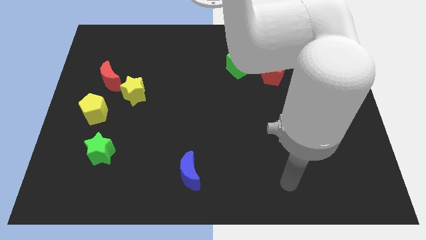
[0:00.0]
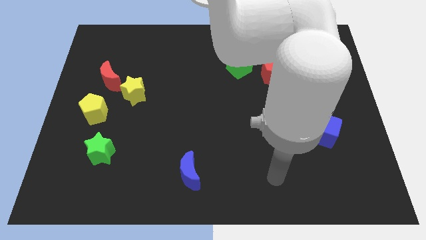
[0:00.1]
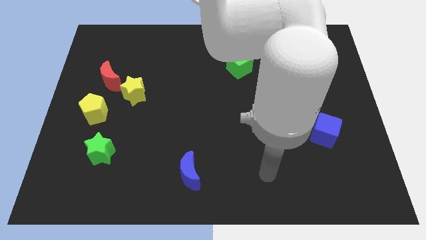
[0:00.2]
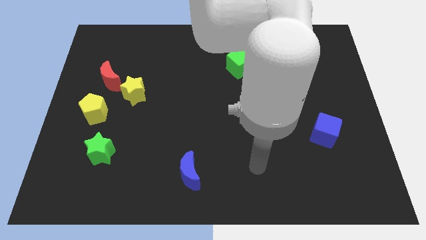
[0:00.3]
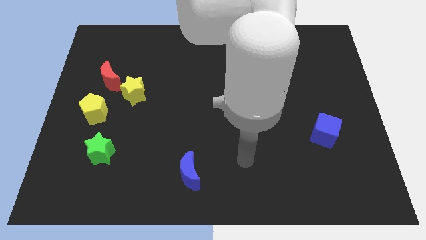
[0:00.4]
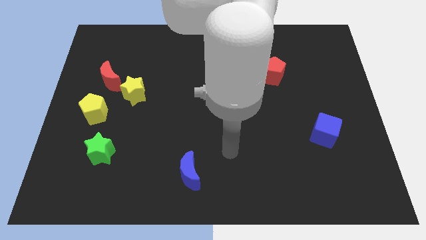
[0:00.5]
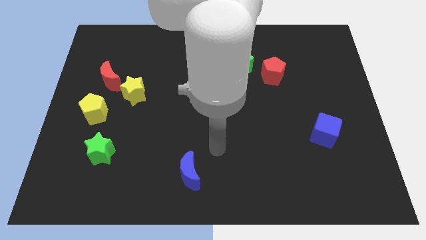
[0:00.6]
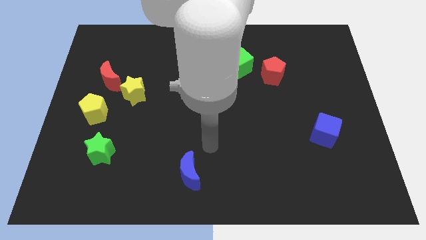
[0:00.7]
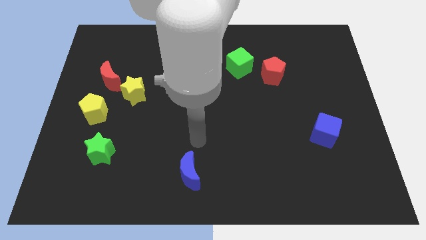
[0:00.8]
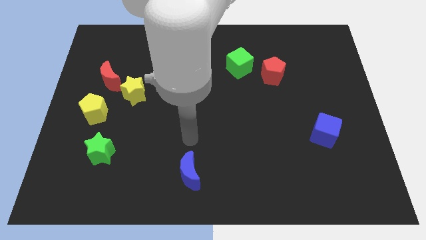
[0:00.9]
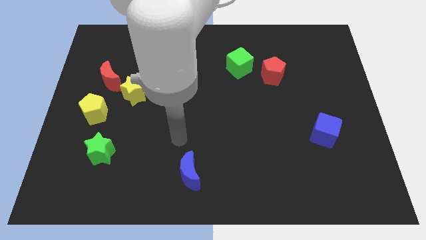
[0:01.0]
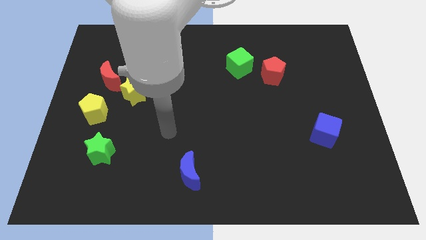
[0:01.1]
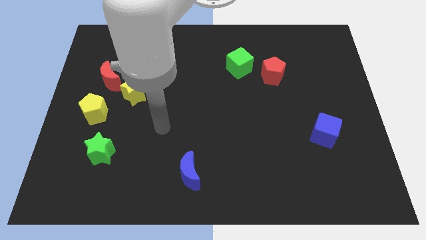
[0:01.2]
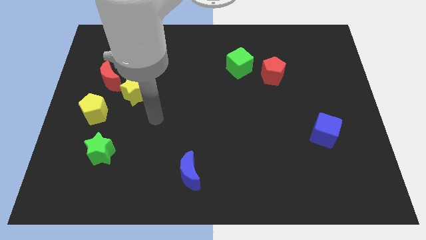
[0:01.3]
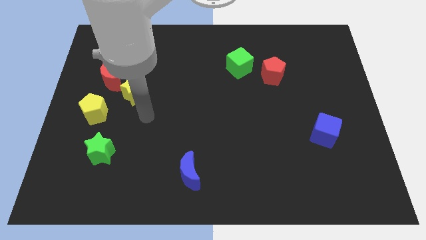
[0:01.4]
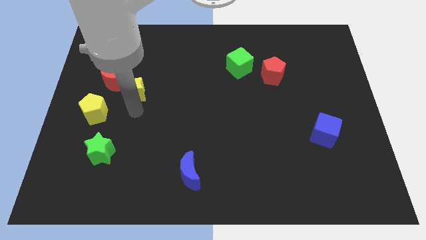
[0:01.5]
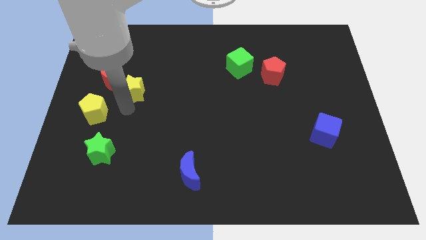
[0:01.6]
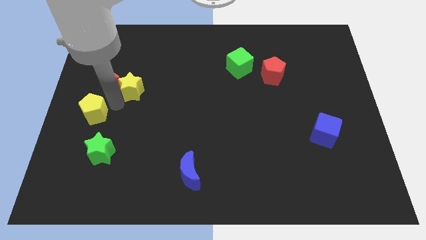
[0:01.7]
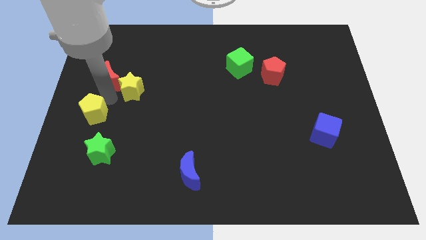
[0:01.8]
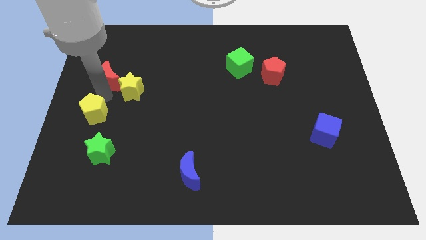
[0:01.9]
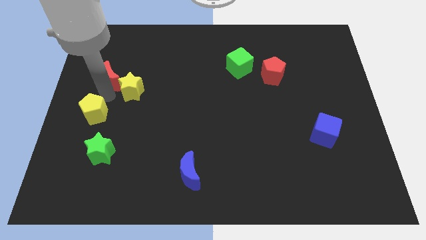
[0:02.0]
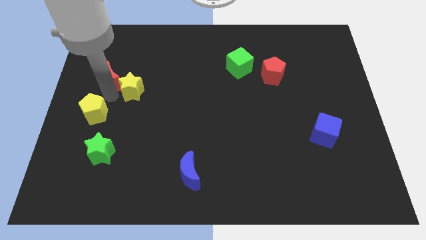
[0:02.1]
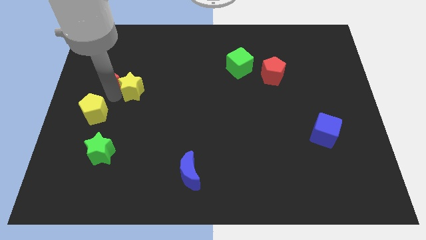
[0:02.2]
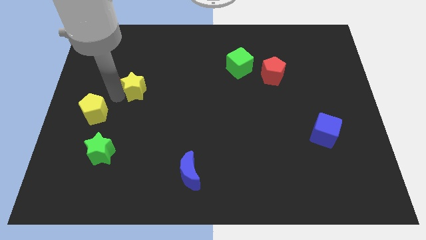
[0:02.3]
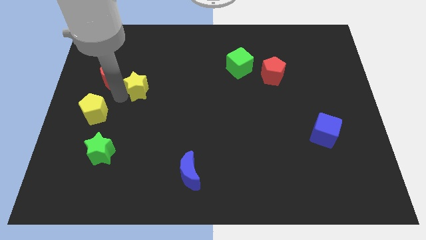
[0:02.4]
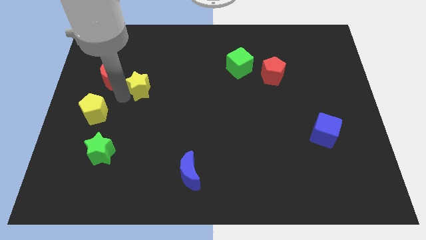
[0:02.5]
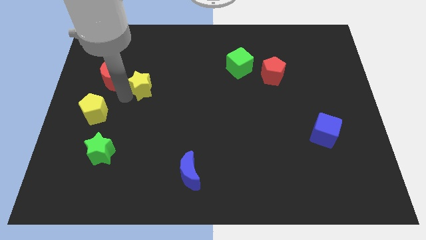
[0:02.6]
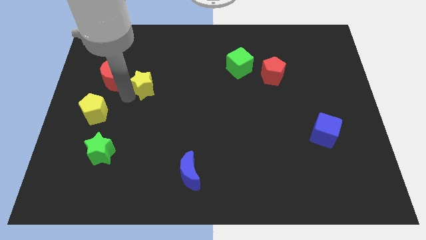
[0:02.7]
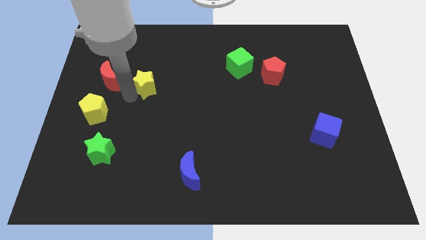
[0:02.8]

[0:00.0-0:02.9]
move the yellow star away from the red moon and yellow pentagon

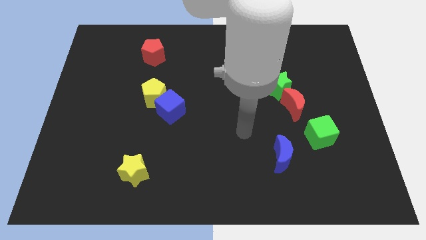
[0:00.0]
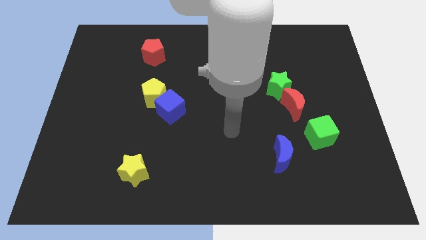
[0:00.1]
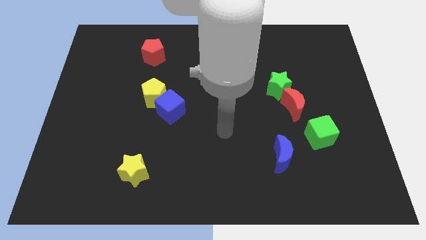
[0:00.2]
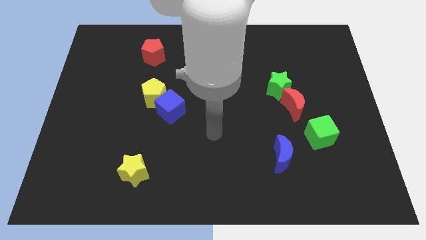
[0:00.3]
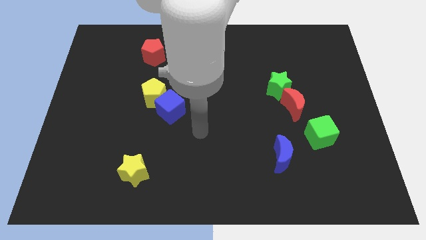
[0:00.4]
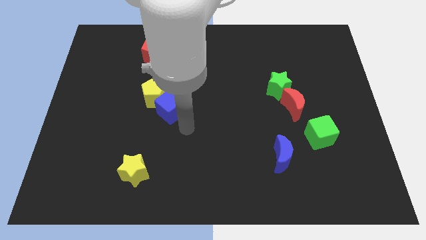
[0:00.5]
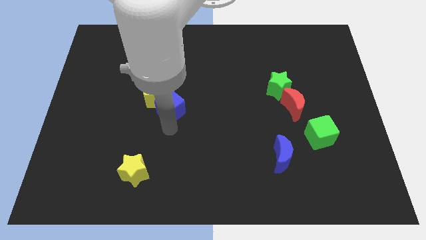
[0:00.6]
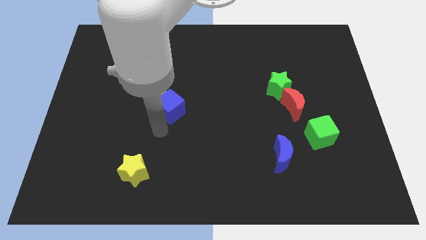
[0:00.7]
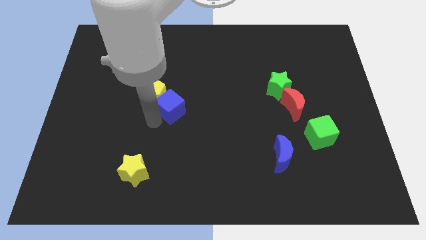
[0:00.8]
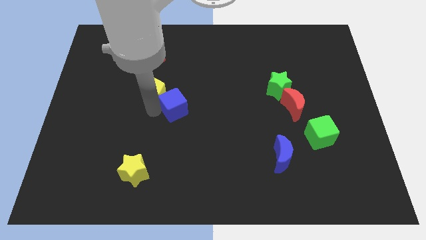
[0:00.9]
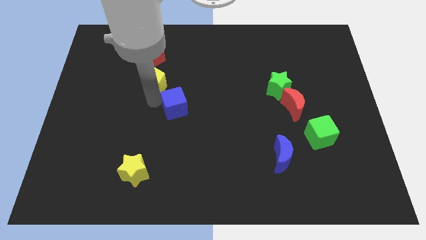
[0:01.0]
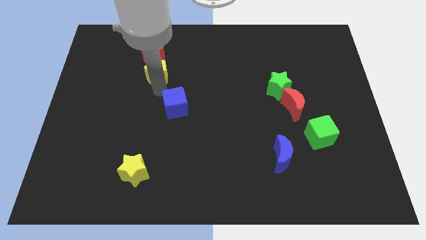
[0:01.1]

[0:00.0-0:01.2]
separate the blue cube from the yellow pentagon

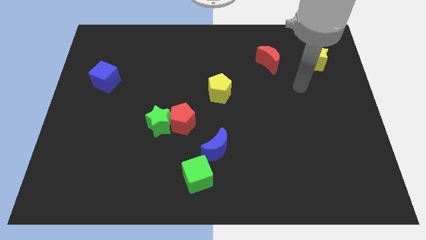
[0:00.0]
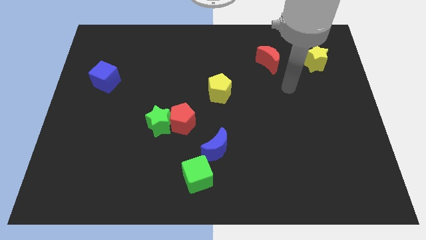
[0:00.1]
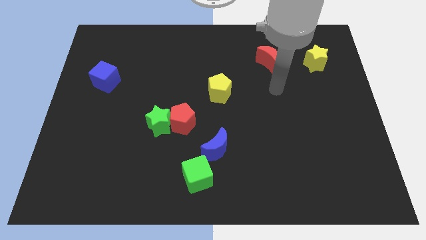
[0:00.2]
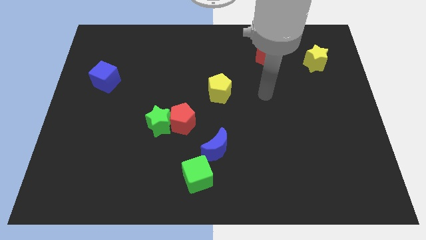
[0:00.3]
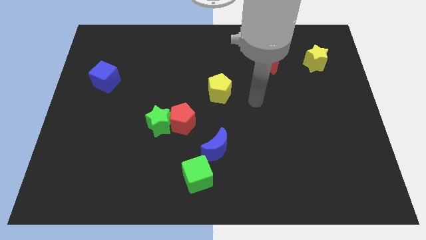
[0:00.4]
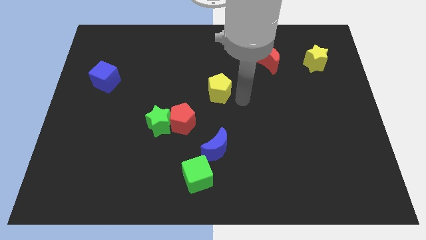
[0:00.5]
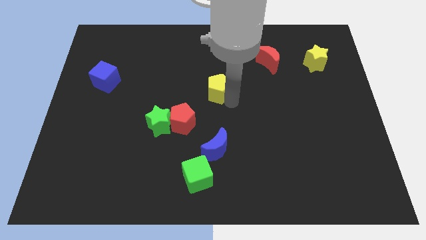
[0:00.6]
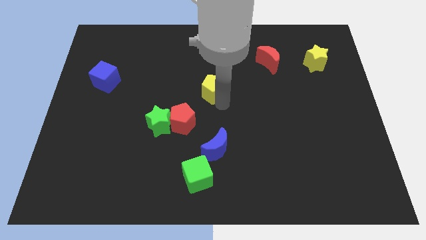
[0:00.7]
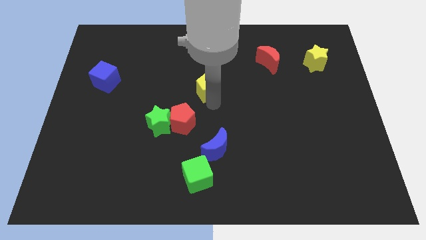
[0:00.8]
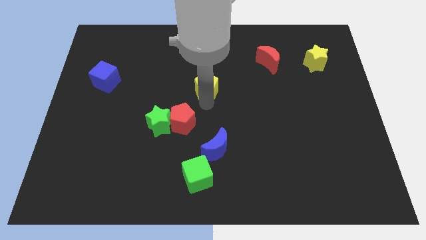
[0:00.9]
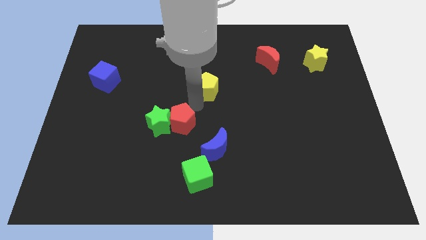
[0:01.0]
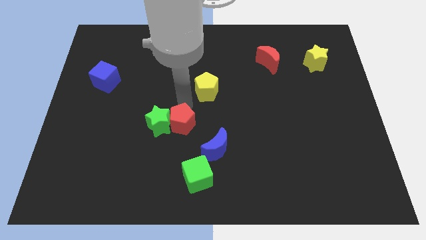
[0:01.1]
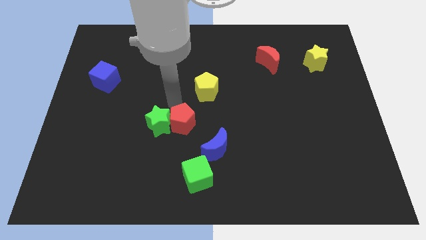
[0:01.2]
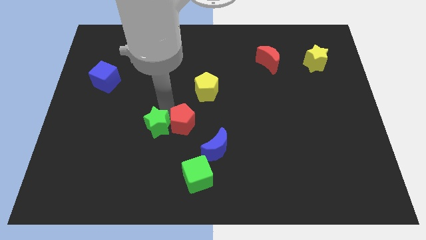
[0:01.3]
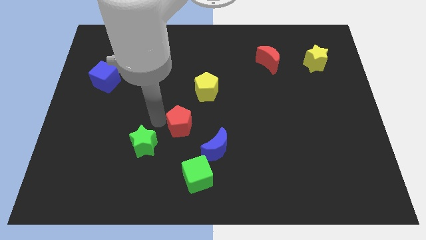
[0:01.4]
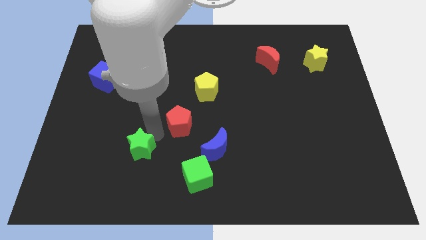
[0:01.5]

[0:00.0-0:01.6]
separate the red pentagon from the green star

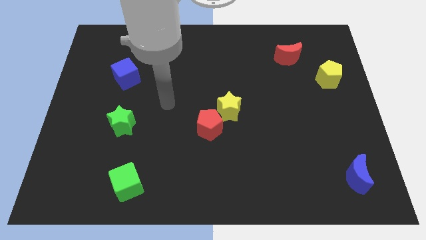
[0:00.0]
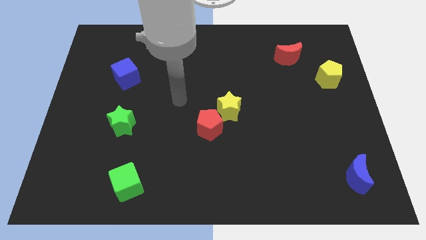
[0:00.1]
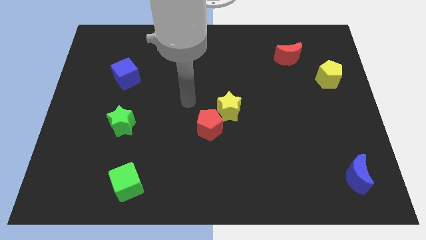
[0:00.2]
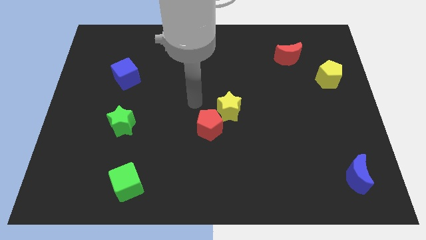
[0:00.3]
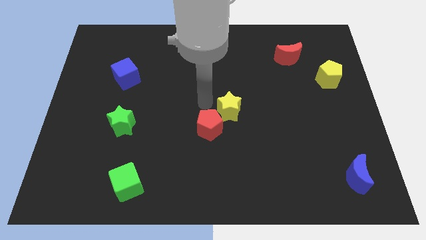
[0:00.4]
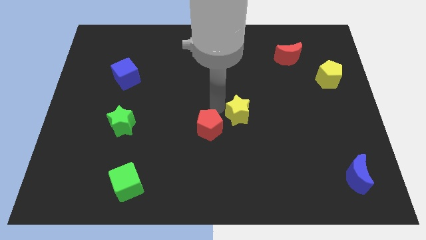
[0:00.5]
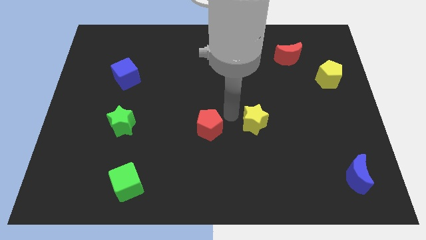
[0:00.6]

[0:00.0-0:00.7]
separate the red pentagon from the yellow star

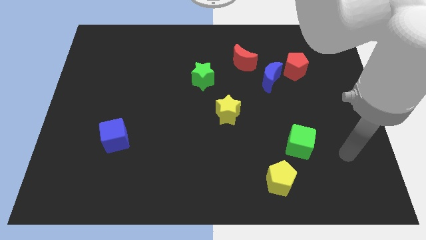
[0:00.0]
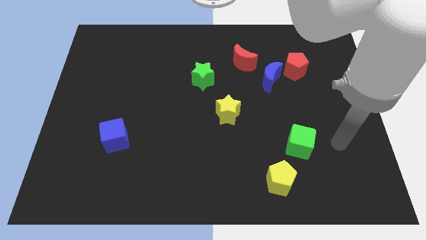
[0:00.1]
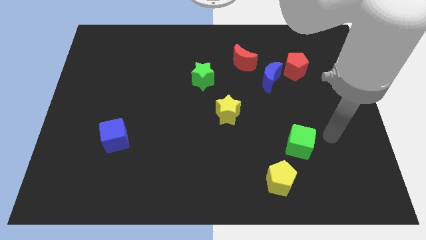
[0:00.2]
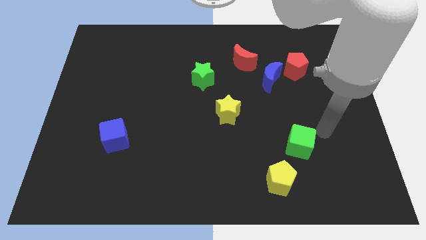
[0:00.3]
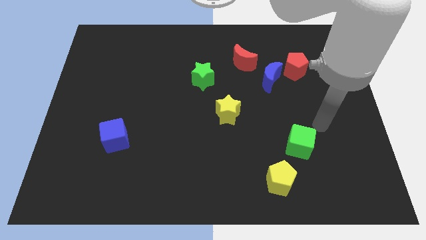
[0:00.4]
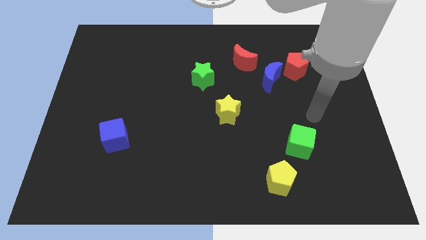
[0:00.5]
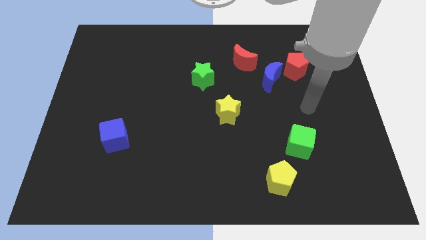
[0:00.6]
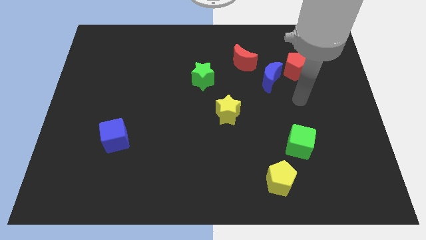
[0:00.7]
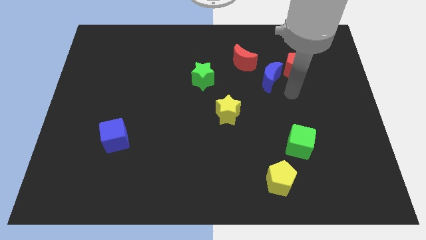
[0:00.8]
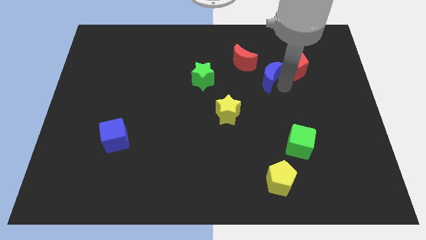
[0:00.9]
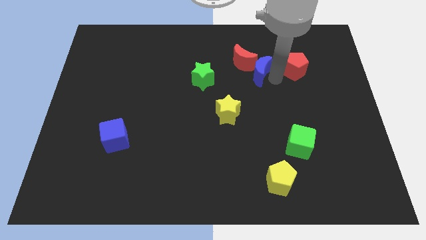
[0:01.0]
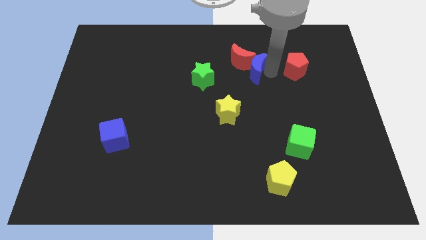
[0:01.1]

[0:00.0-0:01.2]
separate the red pentagon from the blue moon

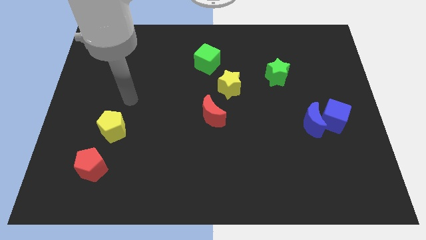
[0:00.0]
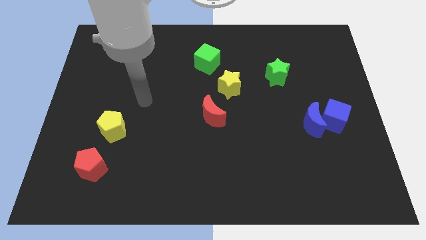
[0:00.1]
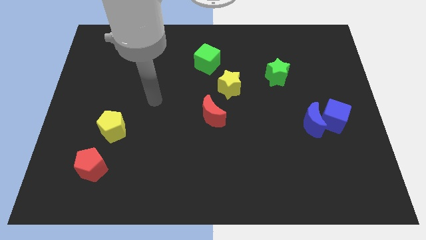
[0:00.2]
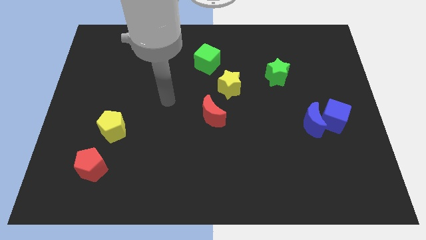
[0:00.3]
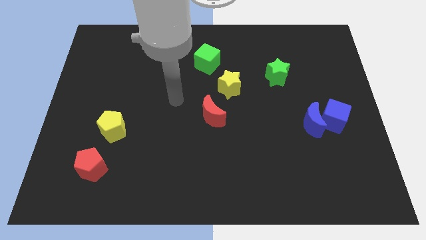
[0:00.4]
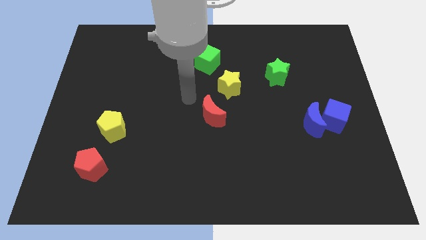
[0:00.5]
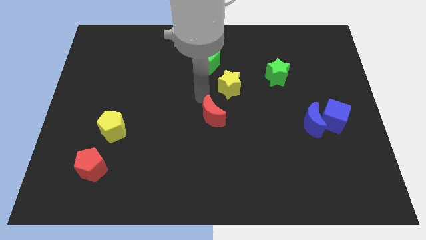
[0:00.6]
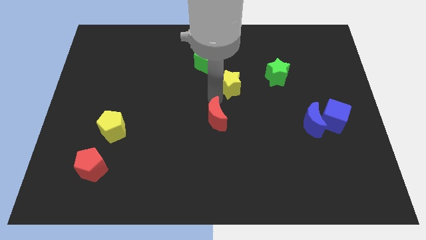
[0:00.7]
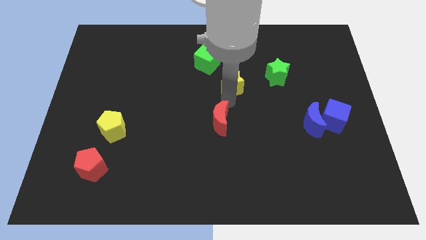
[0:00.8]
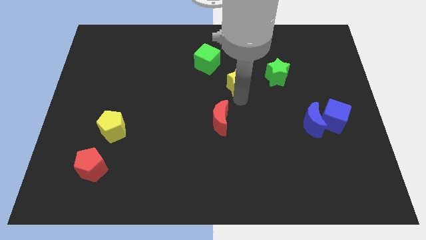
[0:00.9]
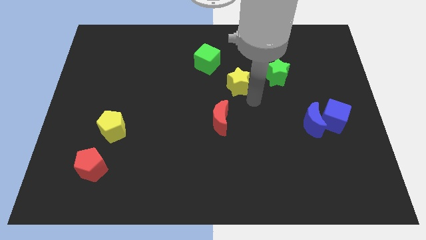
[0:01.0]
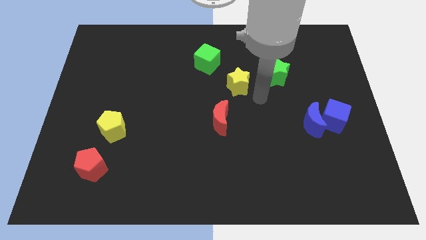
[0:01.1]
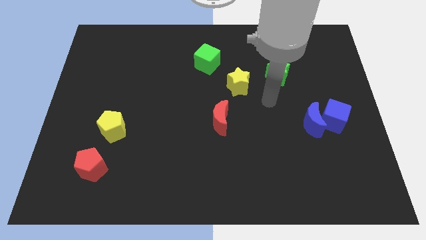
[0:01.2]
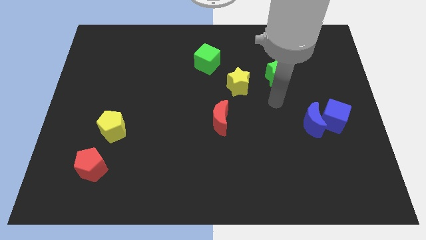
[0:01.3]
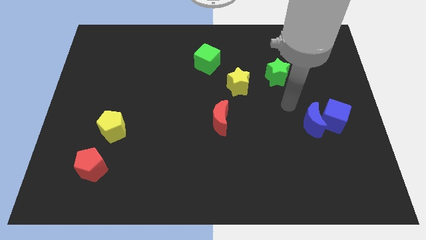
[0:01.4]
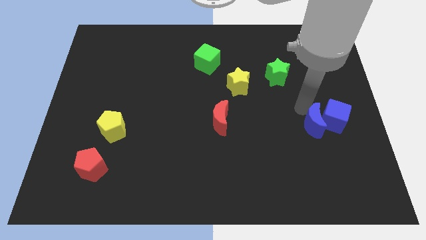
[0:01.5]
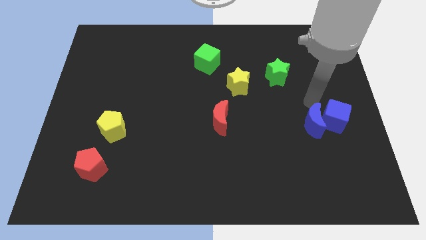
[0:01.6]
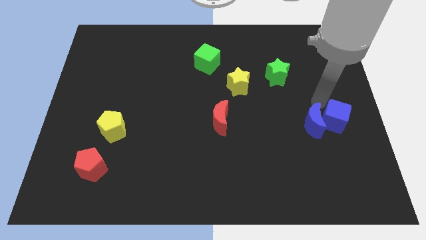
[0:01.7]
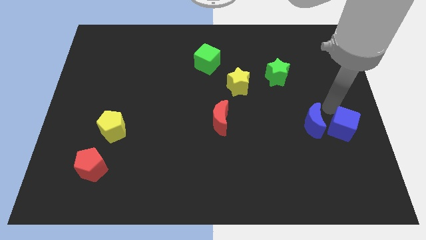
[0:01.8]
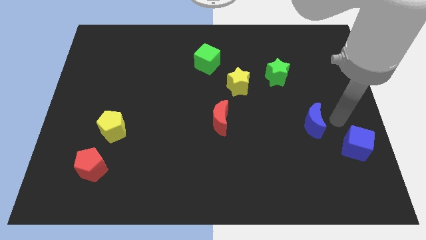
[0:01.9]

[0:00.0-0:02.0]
pull the blue moon apart from the blue cube
